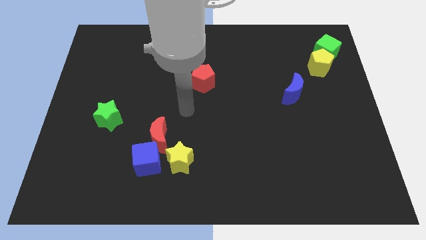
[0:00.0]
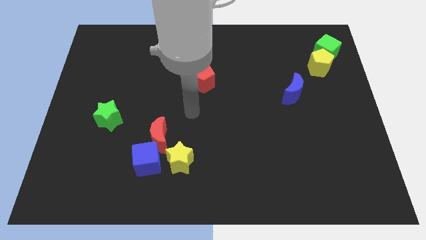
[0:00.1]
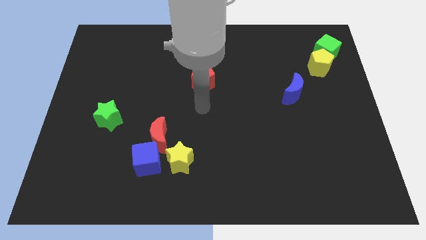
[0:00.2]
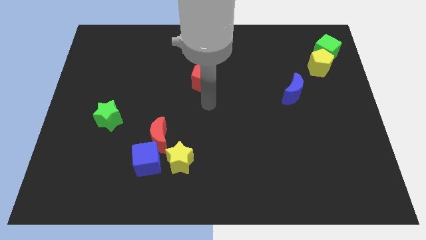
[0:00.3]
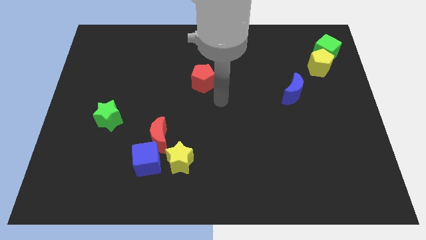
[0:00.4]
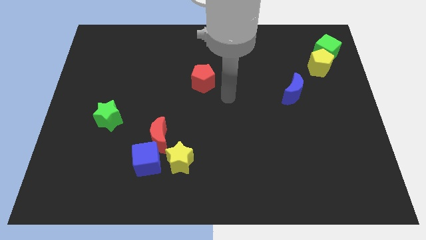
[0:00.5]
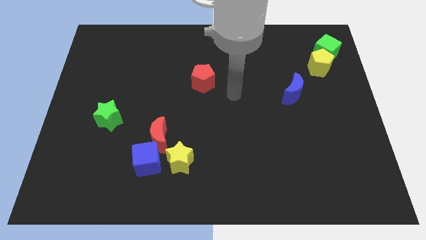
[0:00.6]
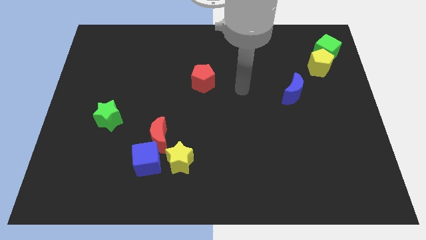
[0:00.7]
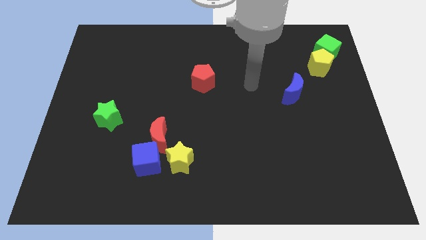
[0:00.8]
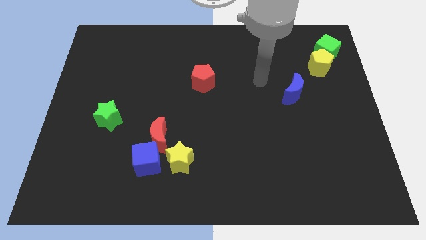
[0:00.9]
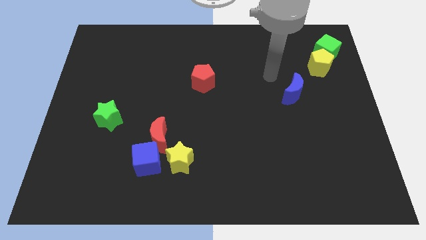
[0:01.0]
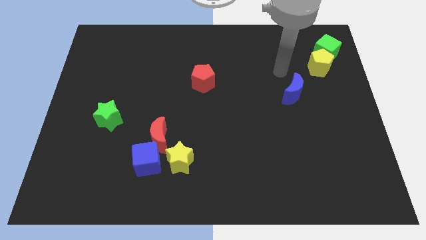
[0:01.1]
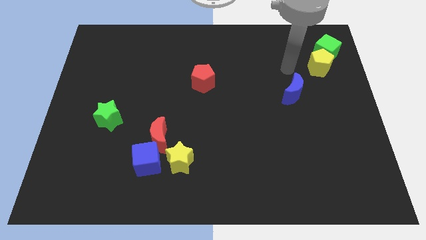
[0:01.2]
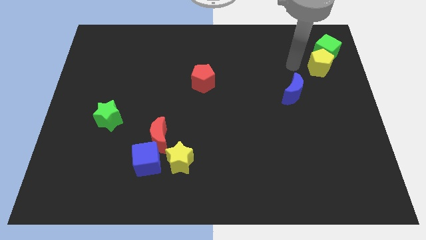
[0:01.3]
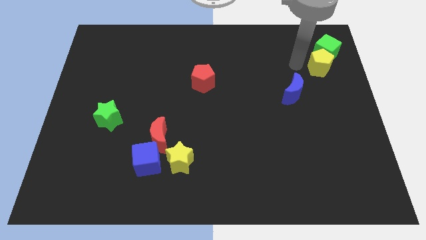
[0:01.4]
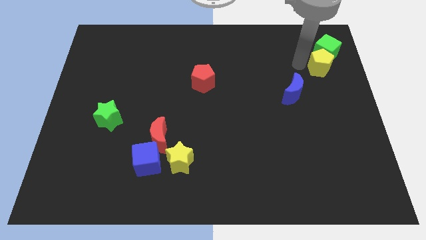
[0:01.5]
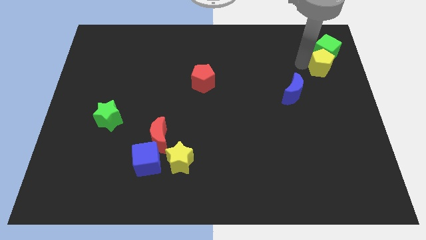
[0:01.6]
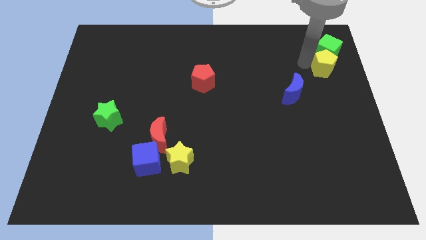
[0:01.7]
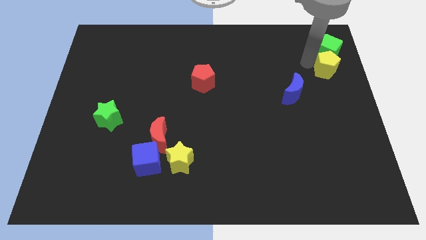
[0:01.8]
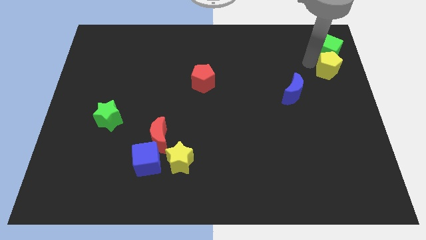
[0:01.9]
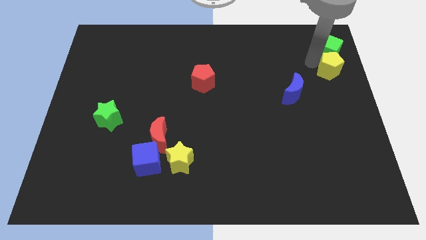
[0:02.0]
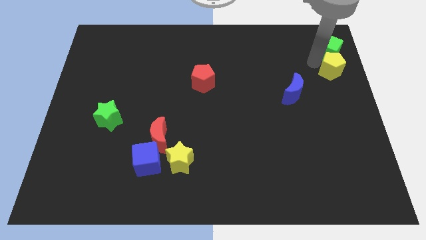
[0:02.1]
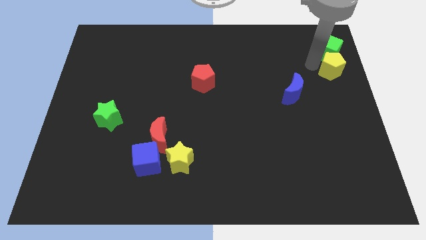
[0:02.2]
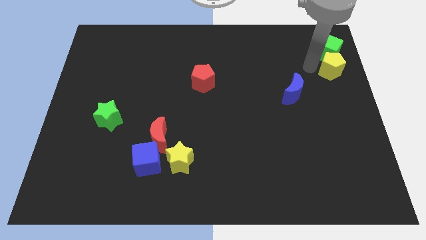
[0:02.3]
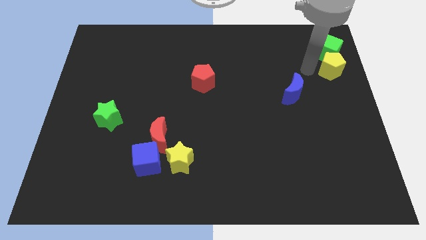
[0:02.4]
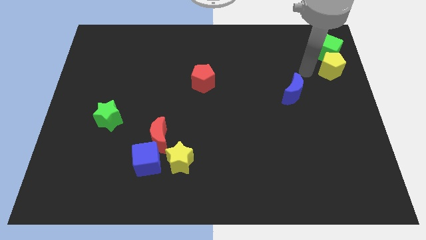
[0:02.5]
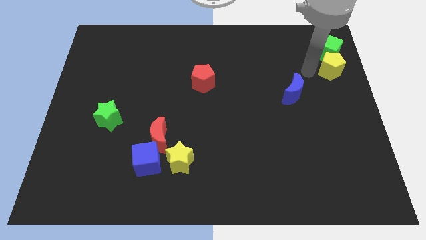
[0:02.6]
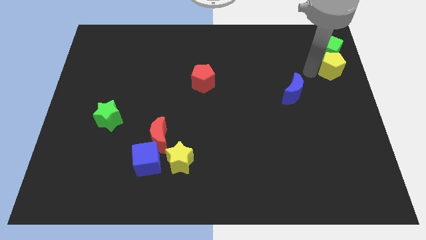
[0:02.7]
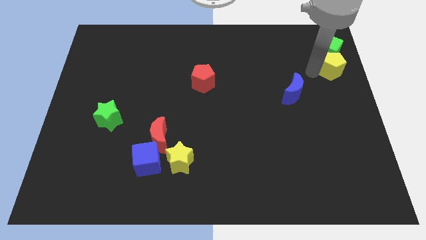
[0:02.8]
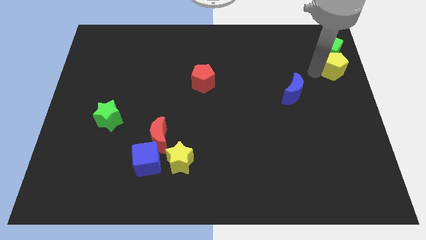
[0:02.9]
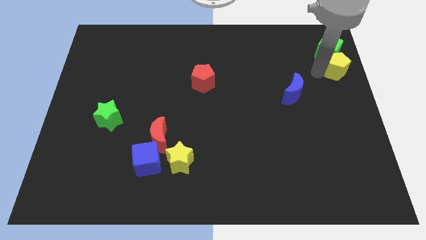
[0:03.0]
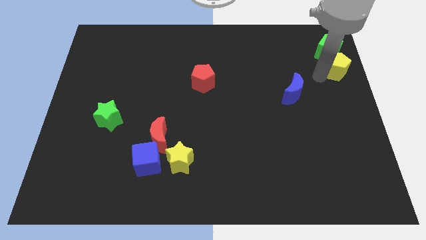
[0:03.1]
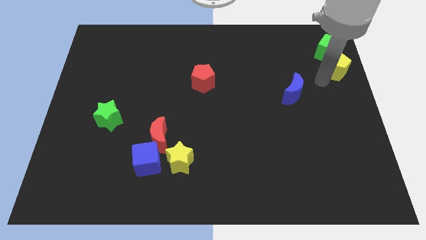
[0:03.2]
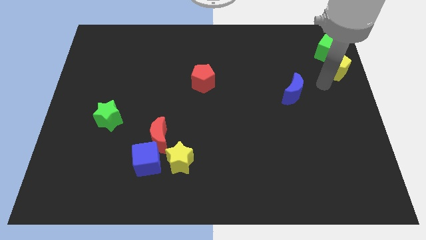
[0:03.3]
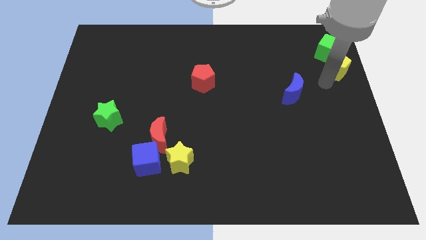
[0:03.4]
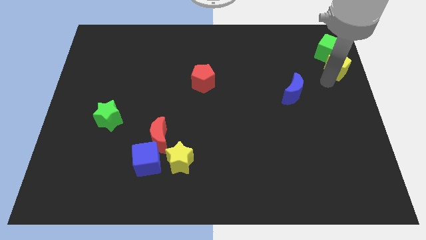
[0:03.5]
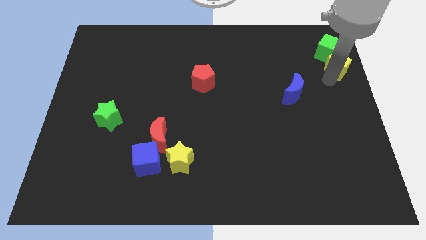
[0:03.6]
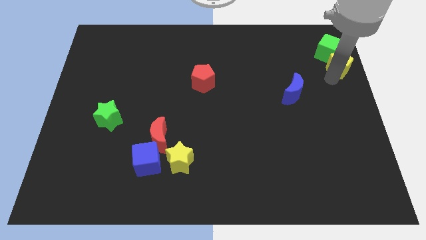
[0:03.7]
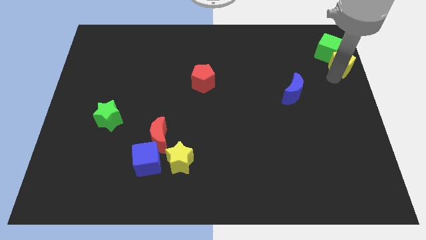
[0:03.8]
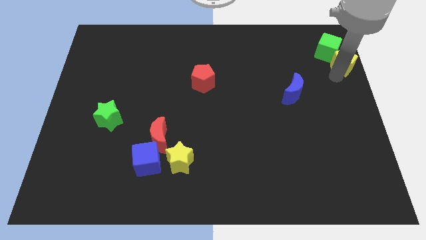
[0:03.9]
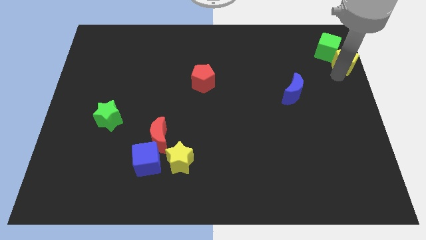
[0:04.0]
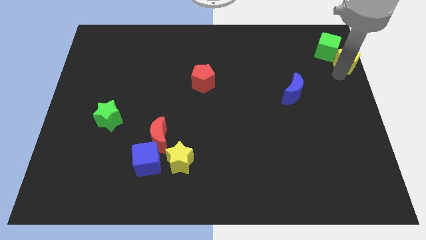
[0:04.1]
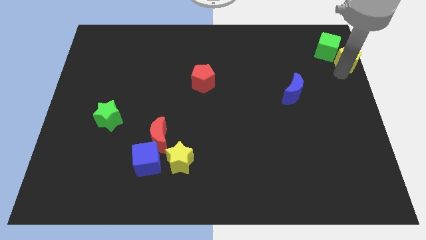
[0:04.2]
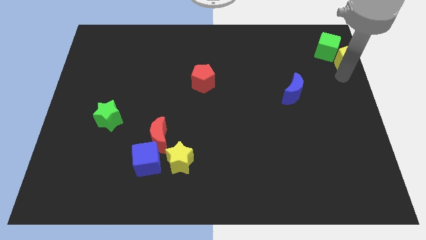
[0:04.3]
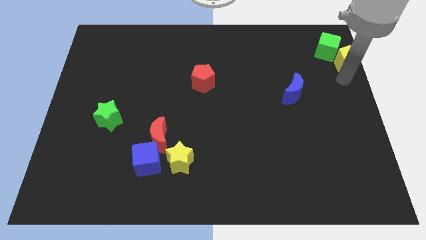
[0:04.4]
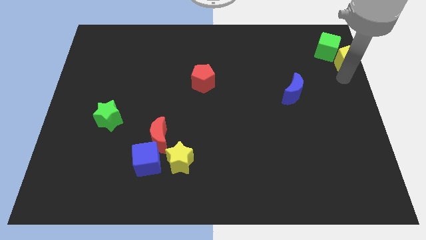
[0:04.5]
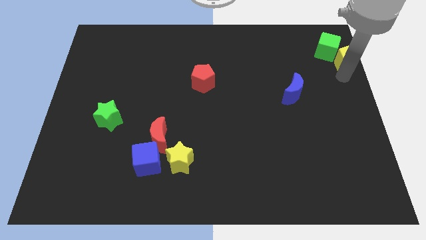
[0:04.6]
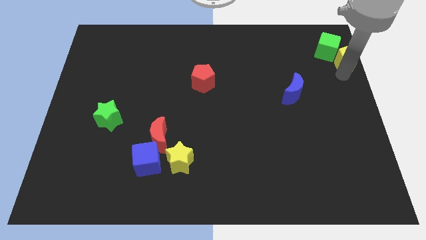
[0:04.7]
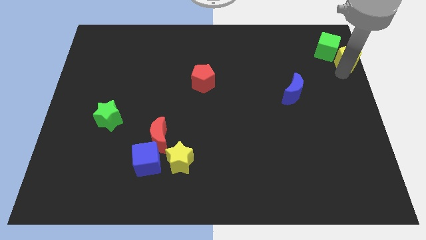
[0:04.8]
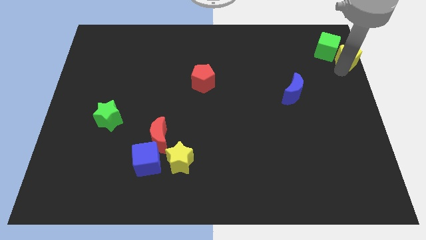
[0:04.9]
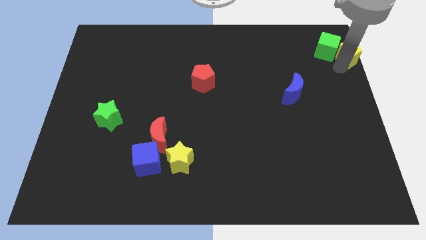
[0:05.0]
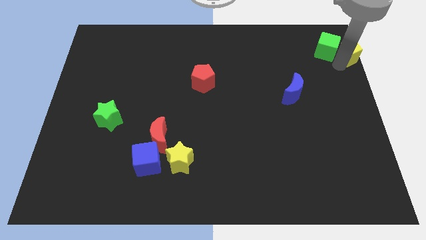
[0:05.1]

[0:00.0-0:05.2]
push the yellow pentagon to the upper right corner
